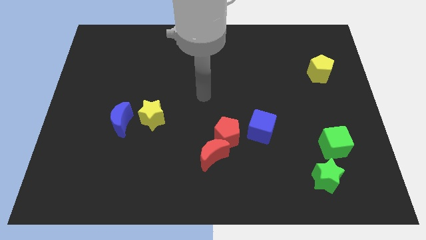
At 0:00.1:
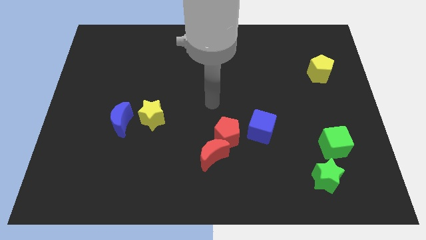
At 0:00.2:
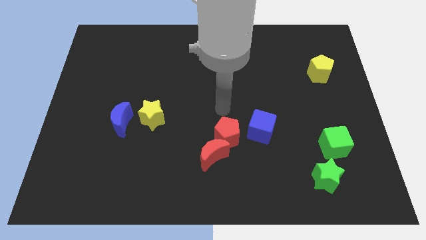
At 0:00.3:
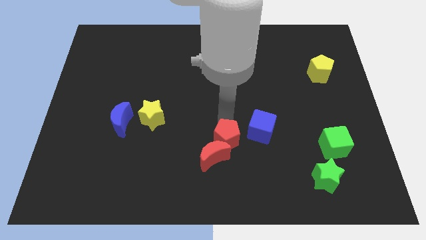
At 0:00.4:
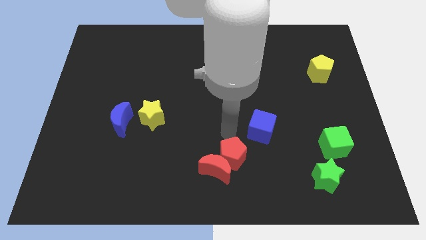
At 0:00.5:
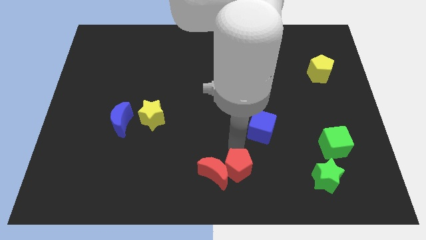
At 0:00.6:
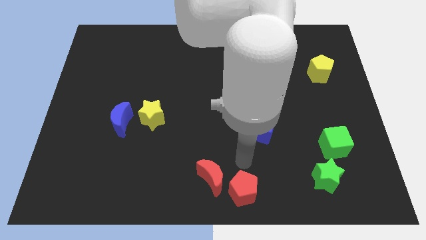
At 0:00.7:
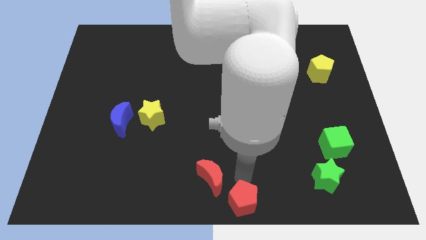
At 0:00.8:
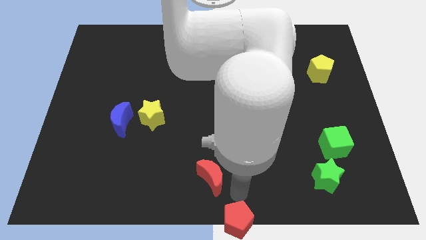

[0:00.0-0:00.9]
pull the red moon apart from the red pentagon

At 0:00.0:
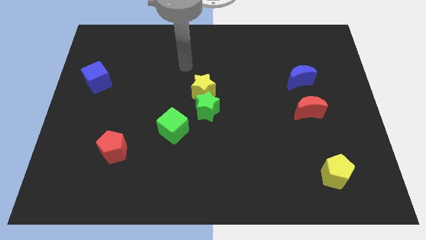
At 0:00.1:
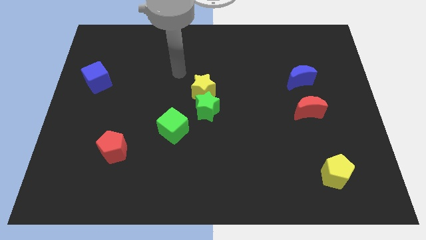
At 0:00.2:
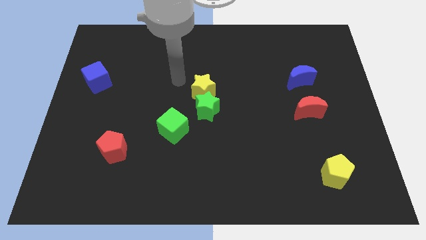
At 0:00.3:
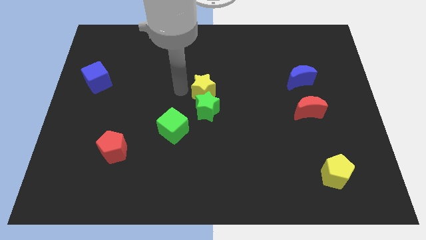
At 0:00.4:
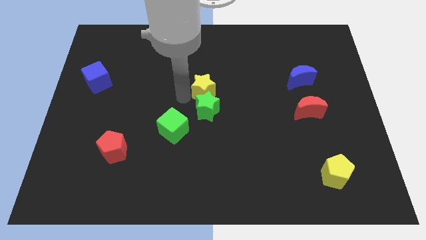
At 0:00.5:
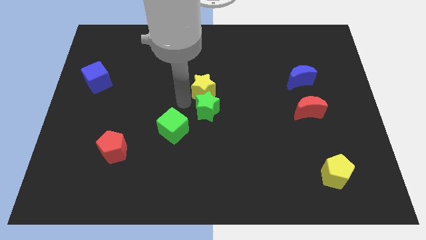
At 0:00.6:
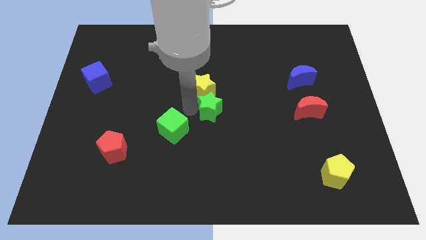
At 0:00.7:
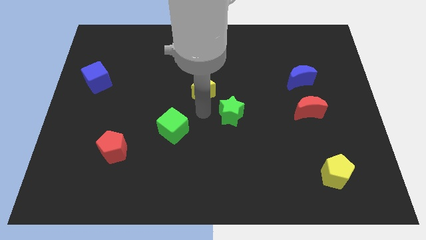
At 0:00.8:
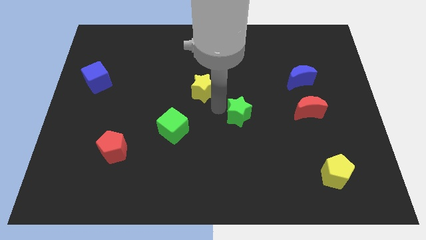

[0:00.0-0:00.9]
move the yellow star away from the green star

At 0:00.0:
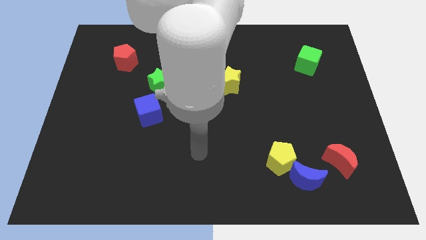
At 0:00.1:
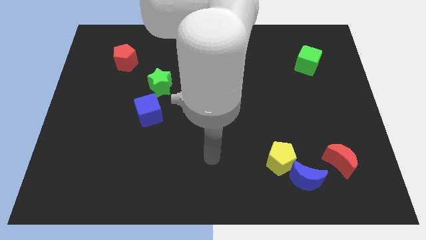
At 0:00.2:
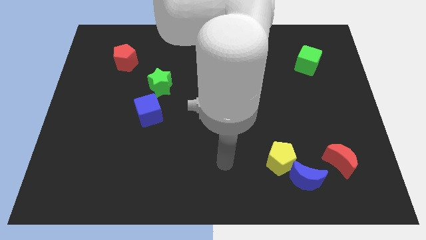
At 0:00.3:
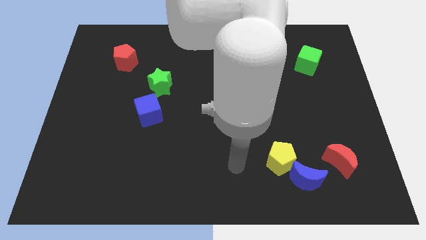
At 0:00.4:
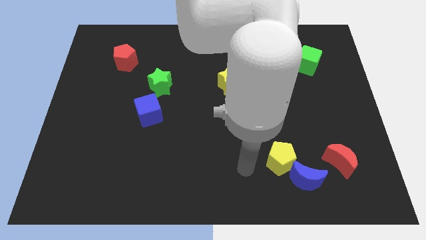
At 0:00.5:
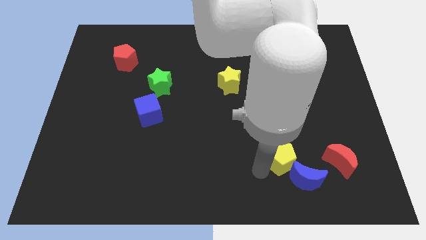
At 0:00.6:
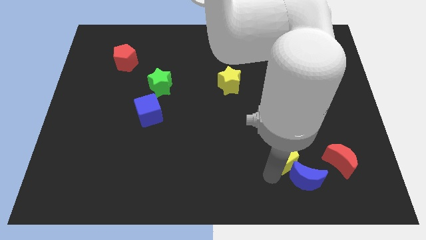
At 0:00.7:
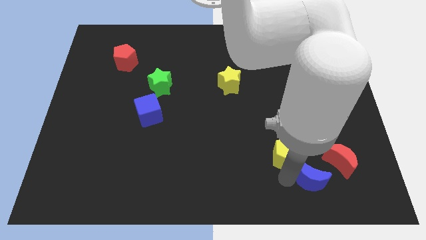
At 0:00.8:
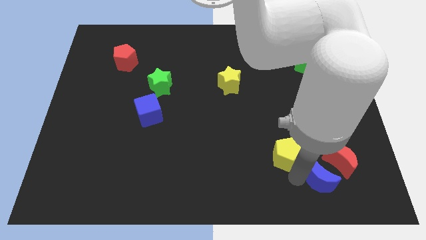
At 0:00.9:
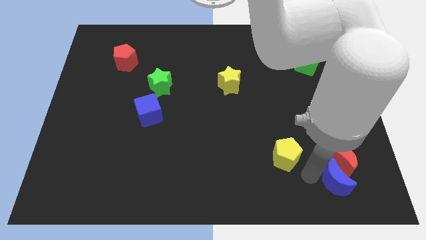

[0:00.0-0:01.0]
separate the yellow pentagon from the blue moon

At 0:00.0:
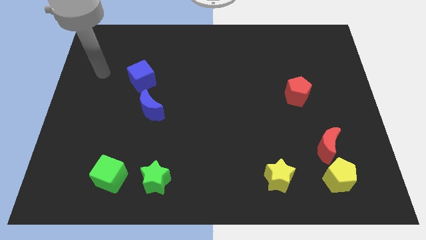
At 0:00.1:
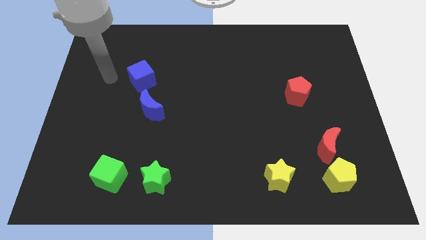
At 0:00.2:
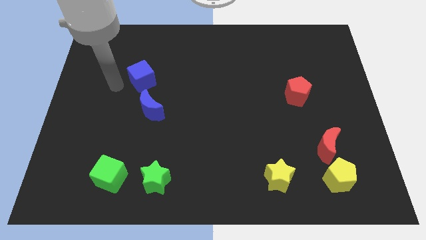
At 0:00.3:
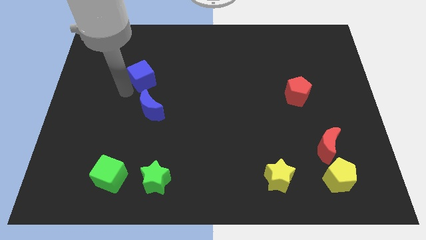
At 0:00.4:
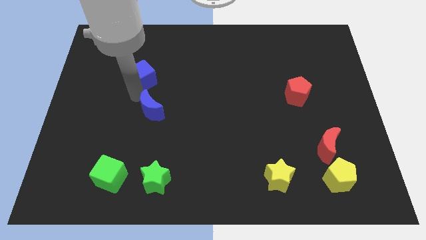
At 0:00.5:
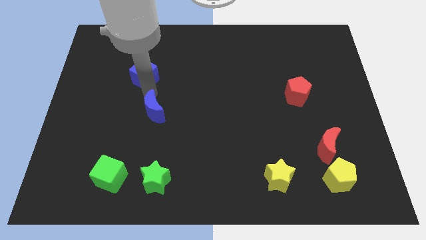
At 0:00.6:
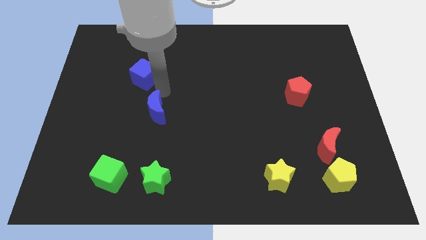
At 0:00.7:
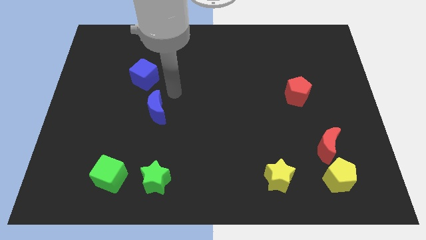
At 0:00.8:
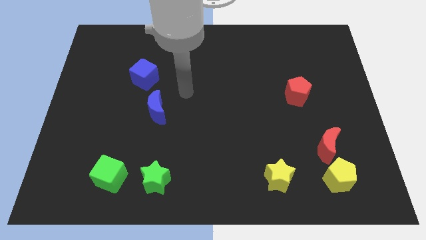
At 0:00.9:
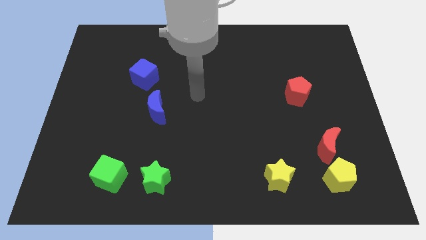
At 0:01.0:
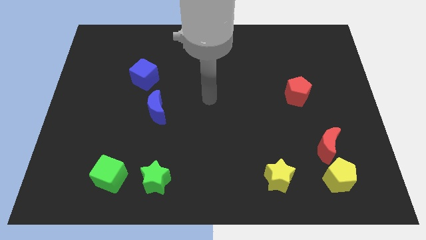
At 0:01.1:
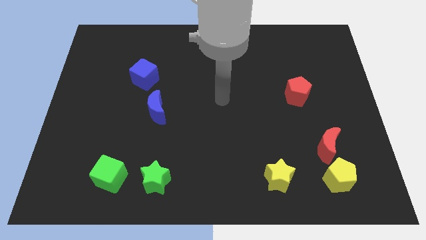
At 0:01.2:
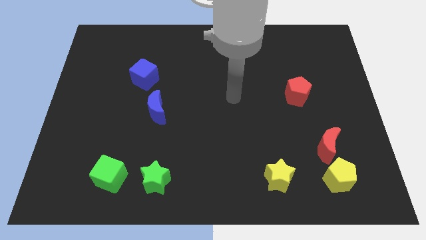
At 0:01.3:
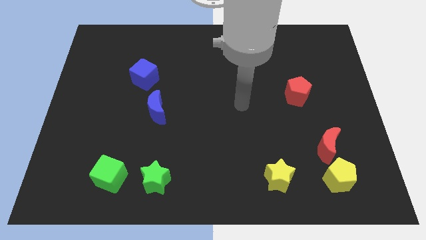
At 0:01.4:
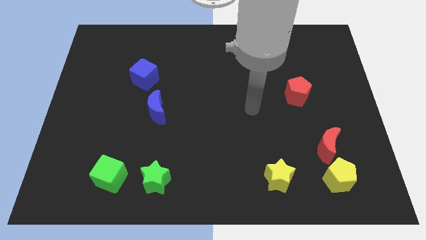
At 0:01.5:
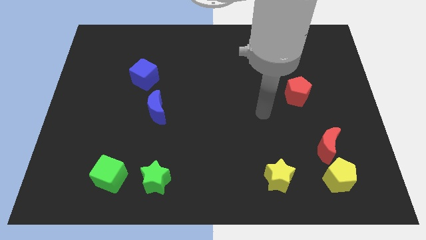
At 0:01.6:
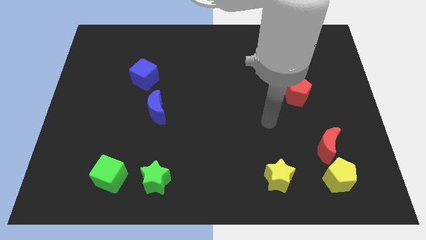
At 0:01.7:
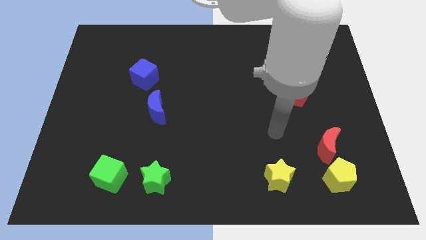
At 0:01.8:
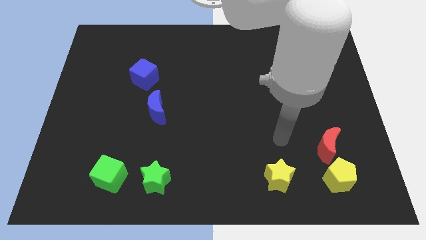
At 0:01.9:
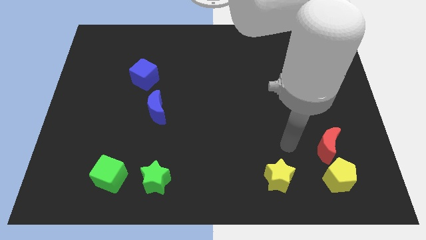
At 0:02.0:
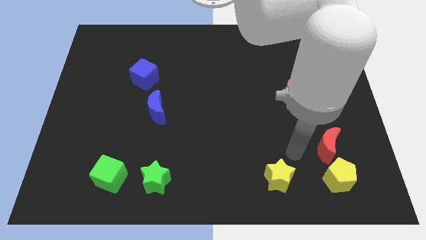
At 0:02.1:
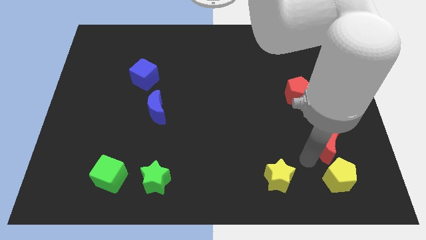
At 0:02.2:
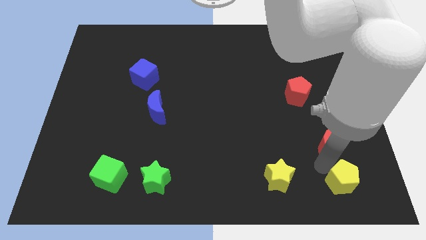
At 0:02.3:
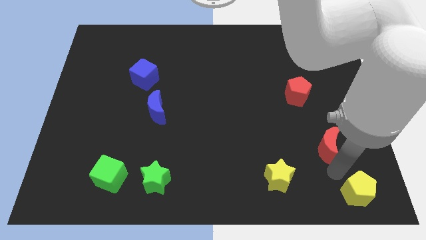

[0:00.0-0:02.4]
separate the red moon from the yellow pentagon

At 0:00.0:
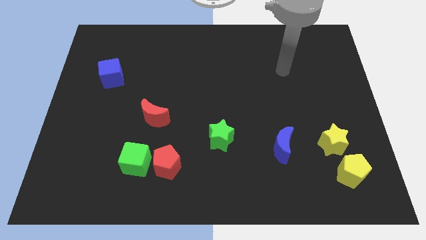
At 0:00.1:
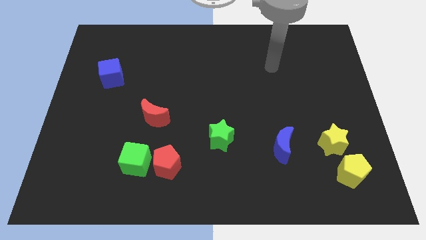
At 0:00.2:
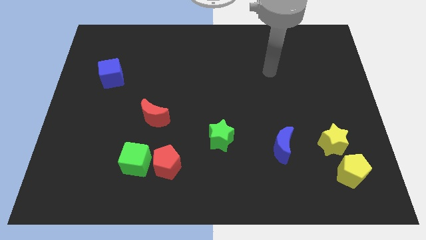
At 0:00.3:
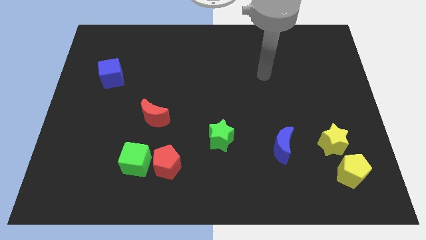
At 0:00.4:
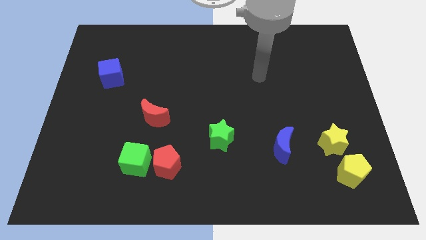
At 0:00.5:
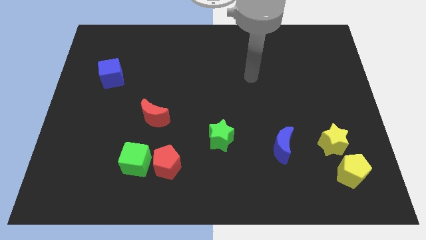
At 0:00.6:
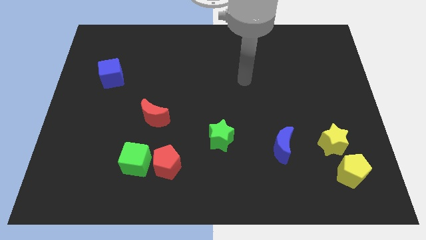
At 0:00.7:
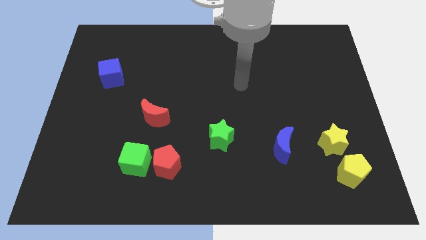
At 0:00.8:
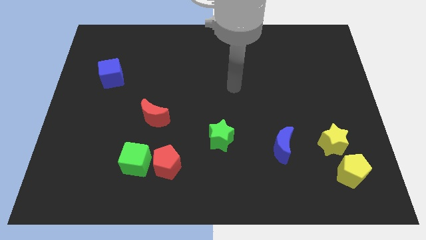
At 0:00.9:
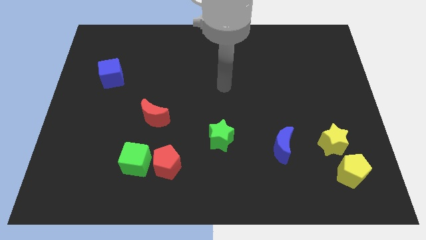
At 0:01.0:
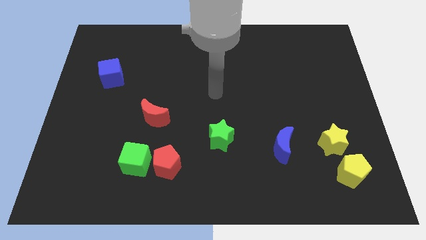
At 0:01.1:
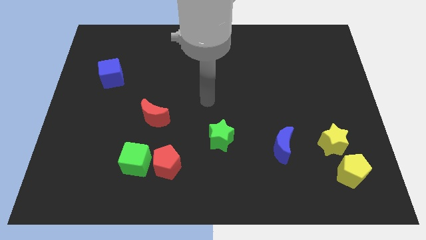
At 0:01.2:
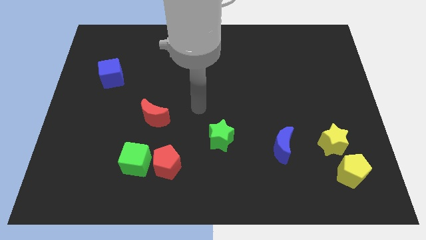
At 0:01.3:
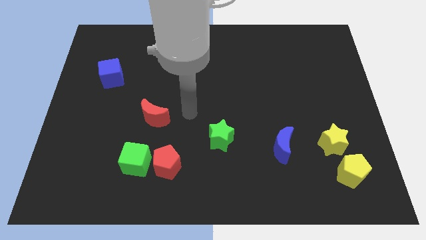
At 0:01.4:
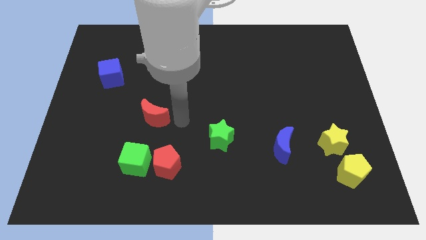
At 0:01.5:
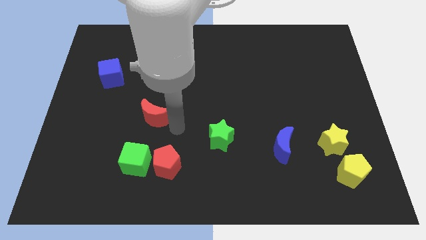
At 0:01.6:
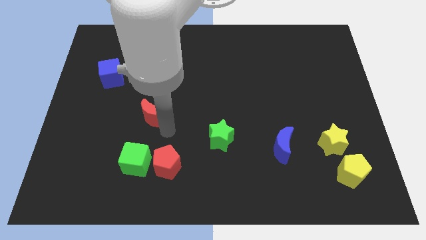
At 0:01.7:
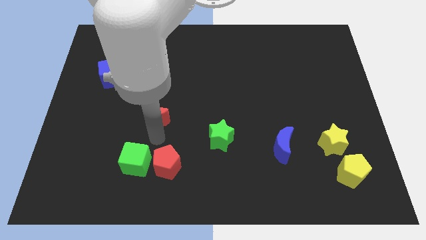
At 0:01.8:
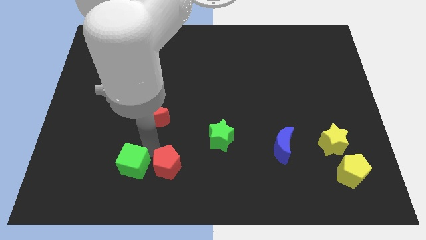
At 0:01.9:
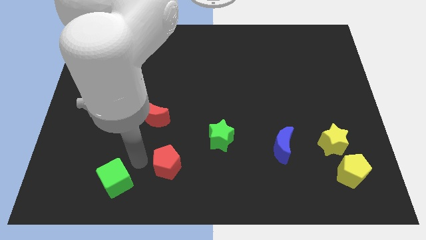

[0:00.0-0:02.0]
move the red pentagon away from the green cube

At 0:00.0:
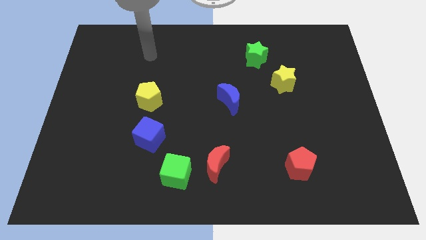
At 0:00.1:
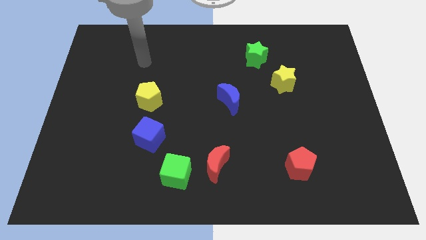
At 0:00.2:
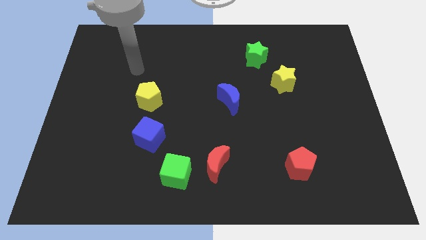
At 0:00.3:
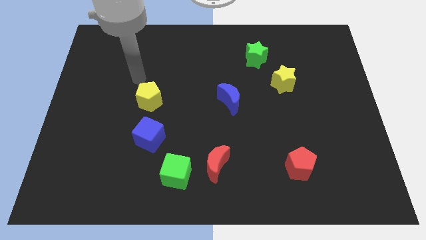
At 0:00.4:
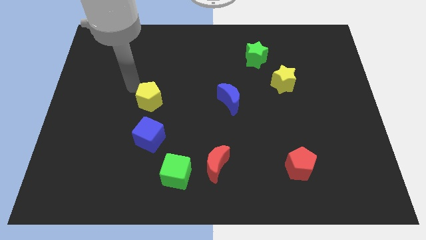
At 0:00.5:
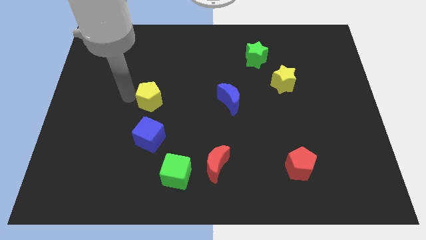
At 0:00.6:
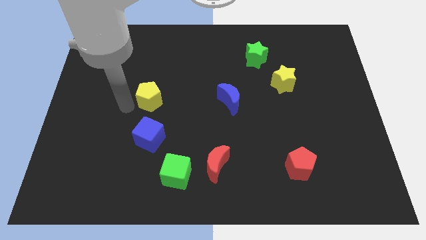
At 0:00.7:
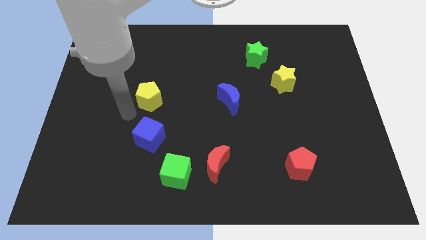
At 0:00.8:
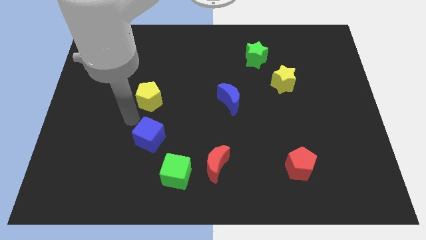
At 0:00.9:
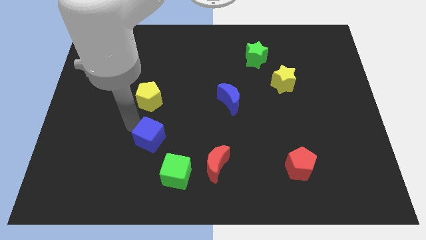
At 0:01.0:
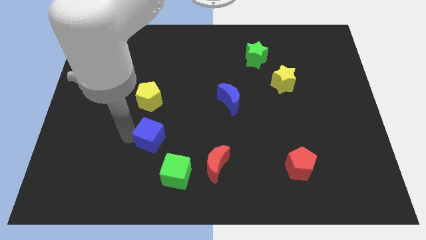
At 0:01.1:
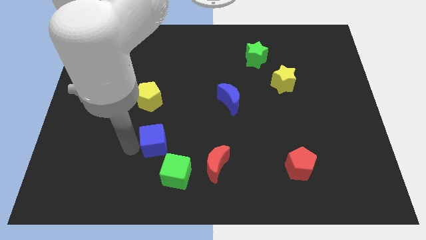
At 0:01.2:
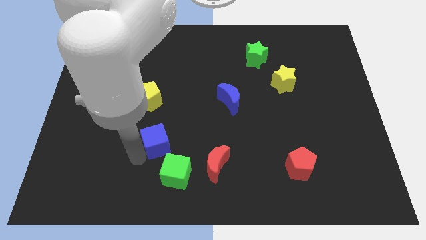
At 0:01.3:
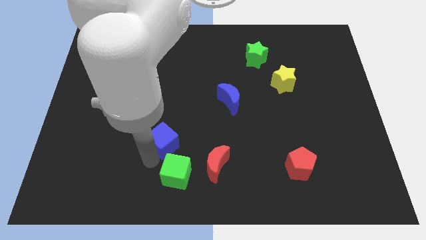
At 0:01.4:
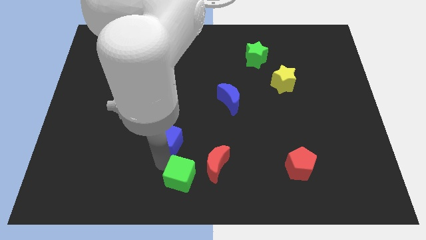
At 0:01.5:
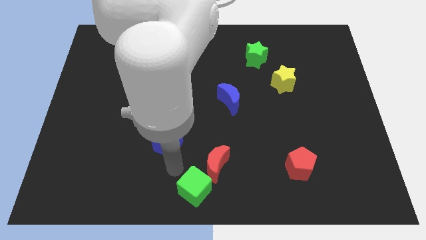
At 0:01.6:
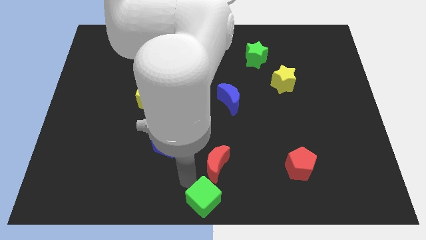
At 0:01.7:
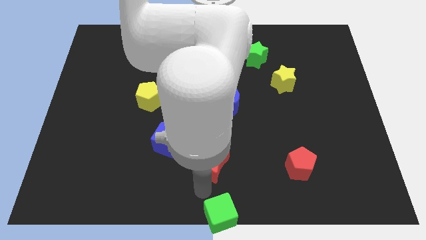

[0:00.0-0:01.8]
separate the red moon from the green cube

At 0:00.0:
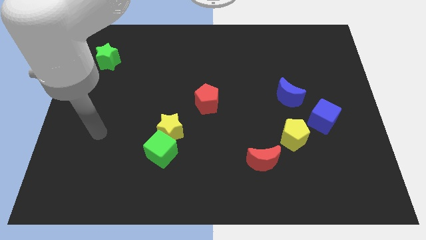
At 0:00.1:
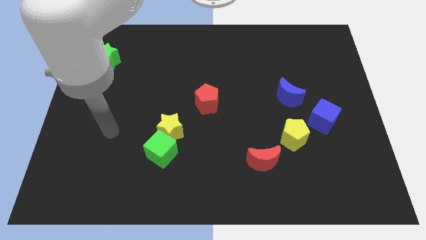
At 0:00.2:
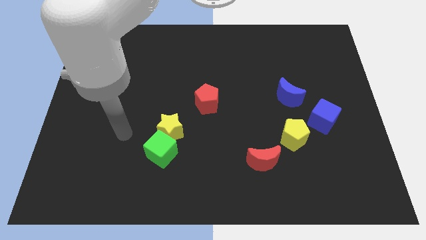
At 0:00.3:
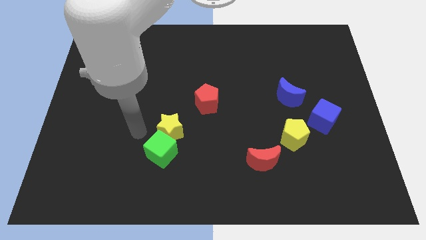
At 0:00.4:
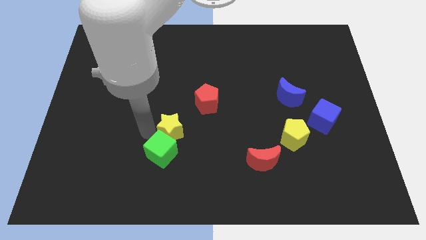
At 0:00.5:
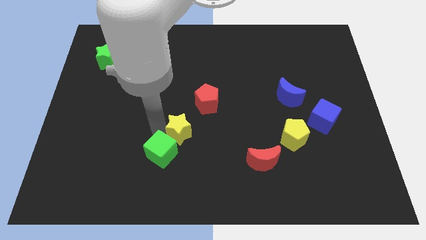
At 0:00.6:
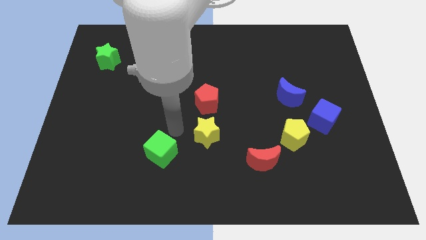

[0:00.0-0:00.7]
move the green cube away from the yellow star
